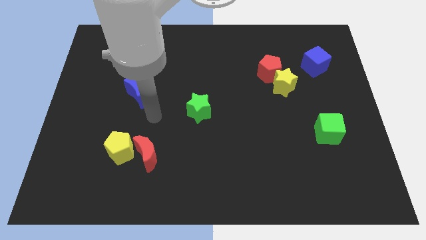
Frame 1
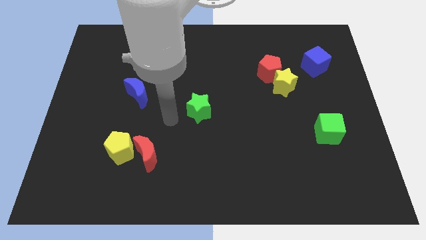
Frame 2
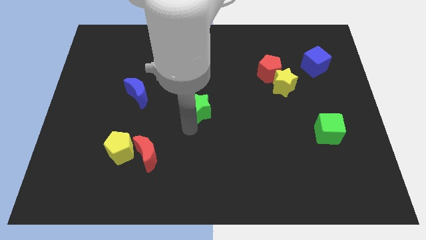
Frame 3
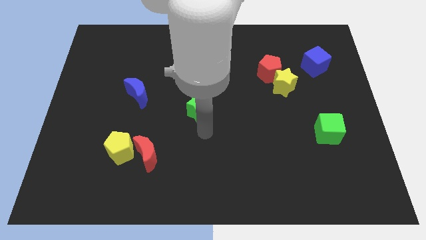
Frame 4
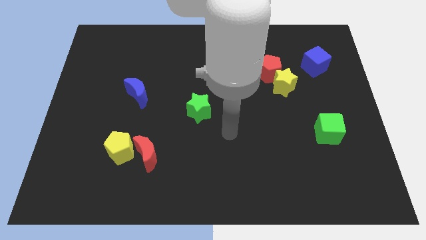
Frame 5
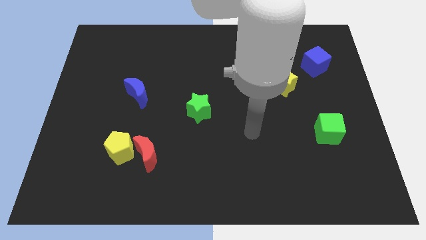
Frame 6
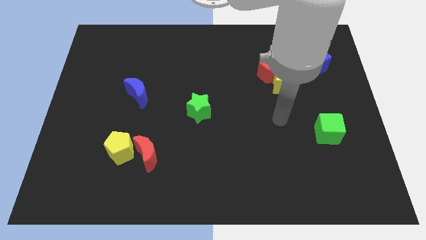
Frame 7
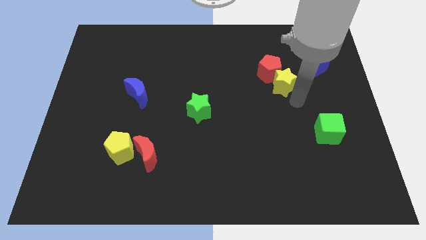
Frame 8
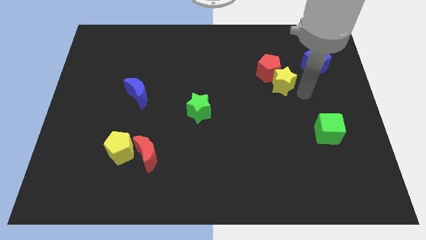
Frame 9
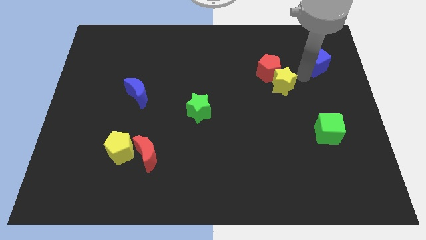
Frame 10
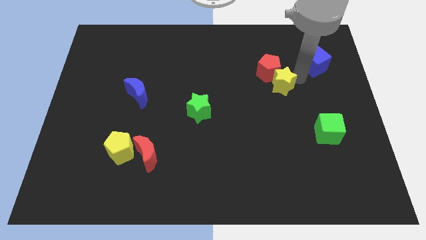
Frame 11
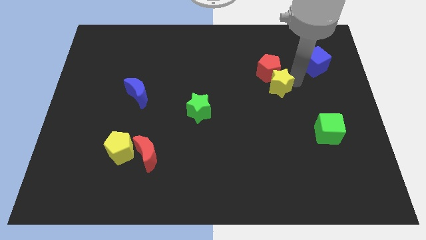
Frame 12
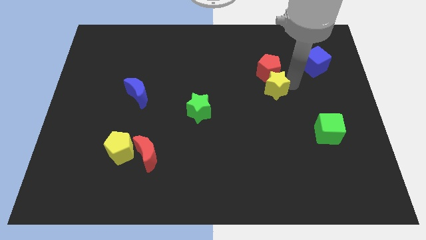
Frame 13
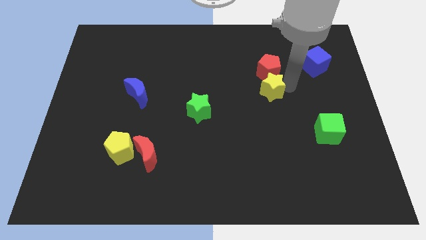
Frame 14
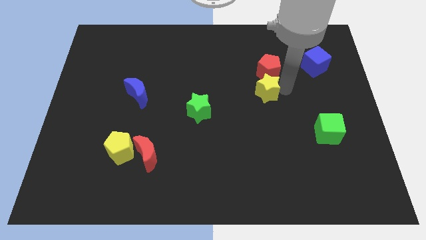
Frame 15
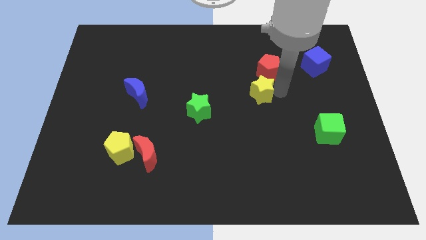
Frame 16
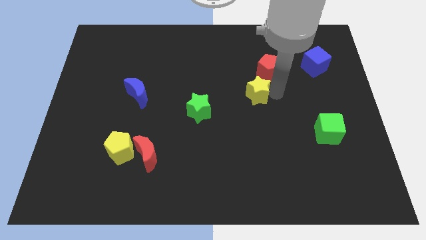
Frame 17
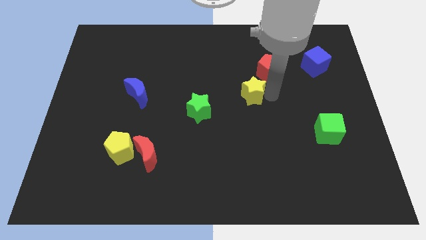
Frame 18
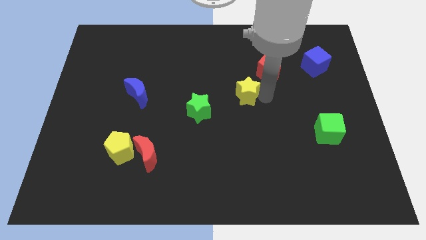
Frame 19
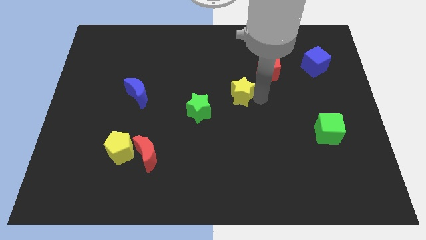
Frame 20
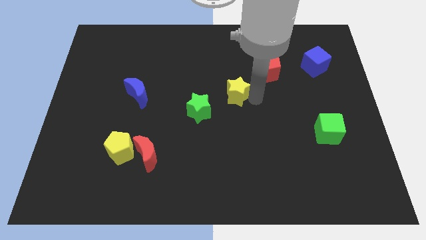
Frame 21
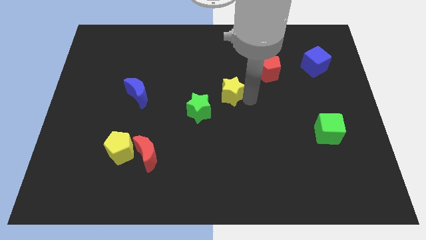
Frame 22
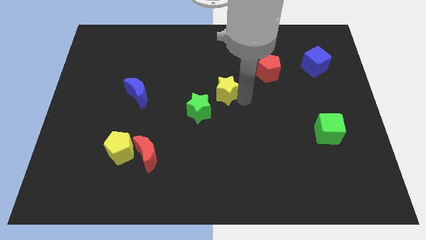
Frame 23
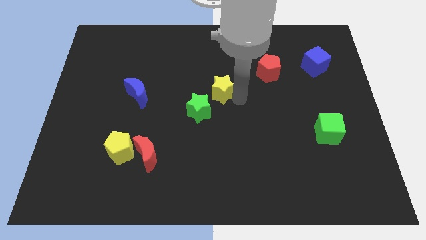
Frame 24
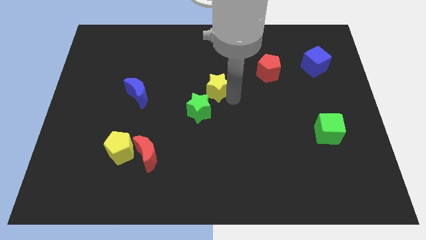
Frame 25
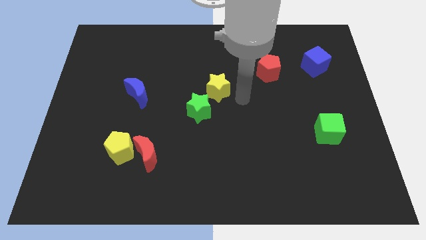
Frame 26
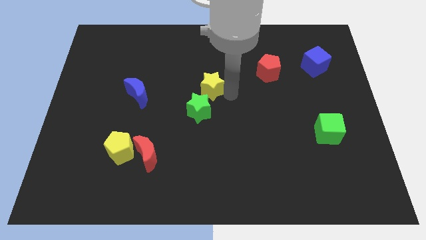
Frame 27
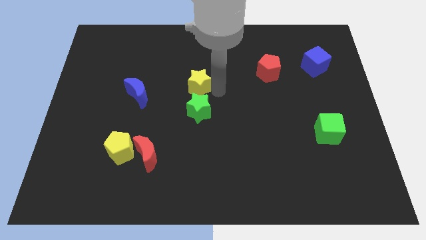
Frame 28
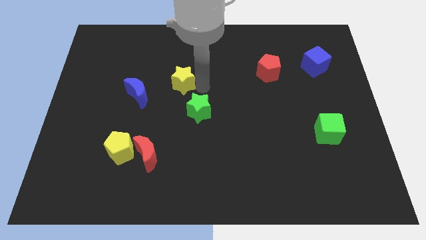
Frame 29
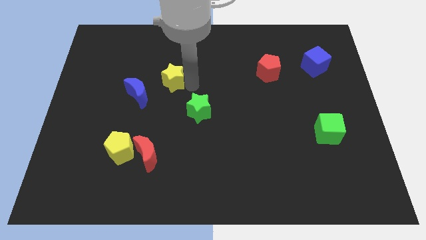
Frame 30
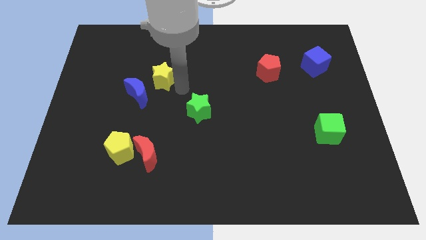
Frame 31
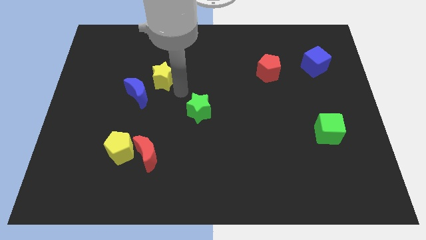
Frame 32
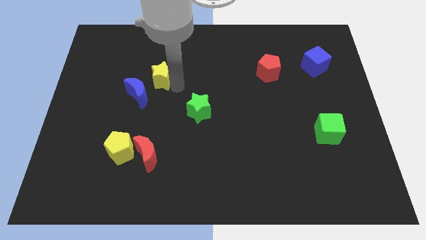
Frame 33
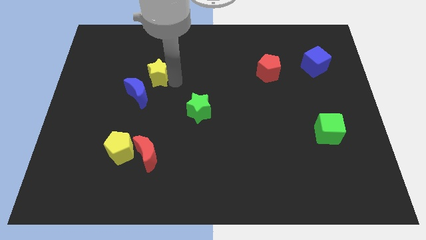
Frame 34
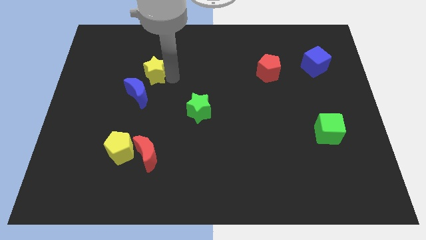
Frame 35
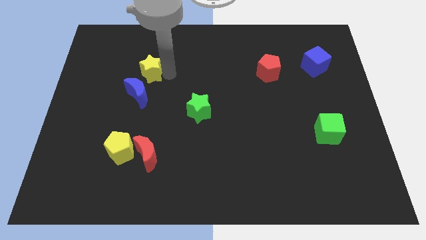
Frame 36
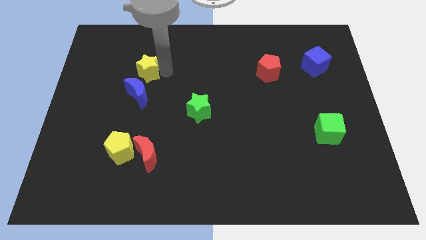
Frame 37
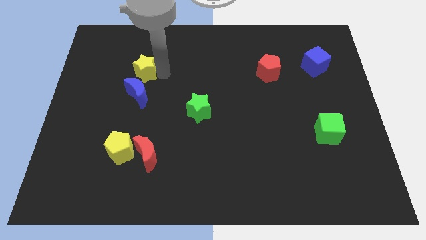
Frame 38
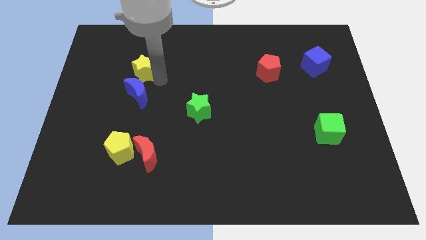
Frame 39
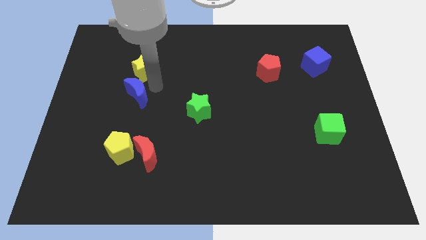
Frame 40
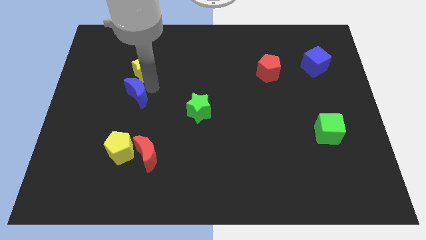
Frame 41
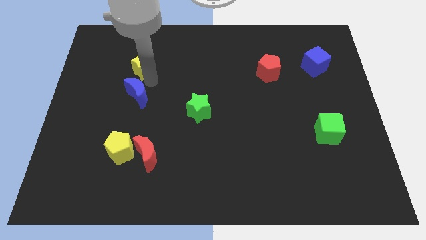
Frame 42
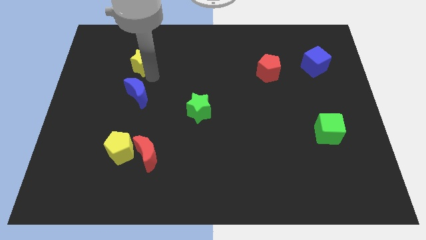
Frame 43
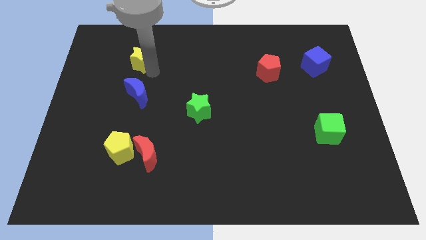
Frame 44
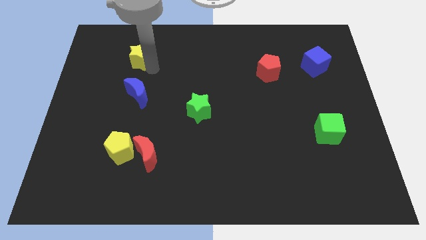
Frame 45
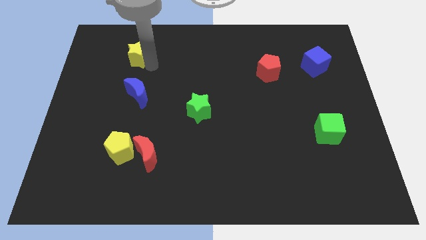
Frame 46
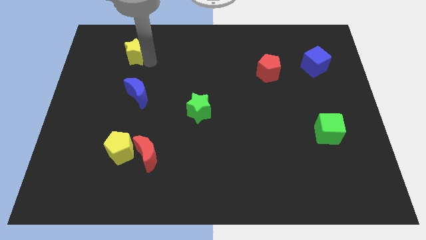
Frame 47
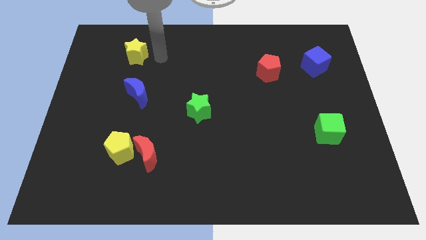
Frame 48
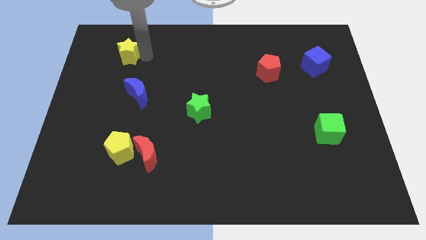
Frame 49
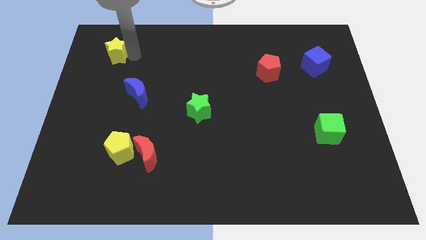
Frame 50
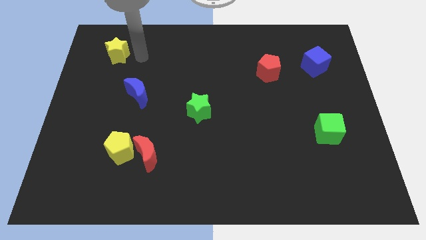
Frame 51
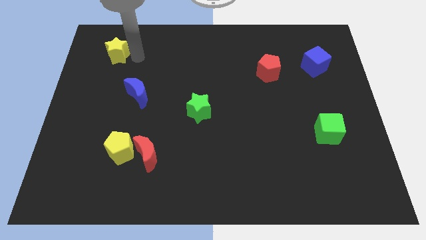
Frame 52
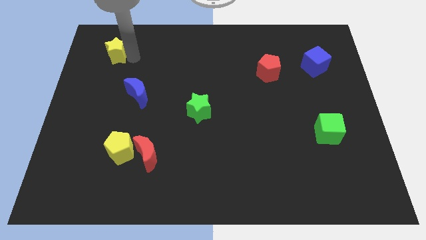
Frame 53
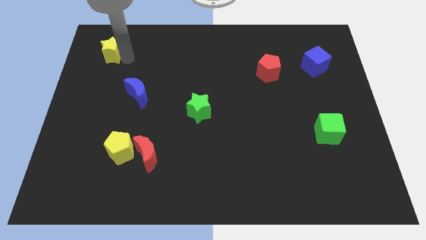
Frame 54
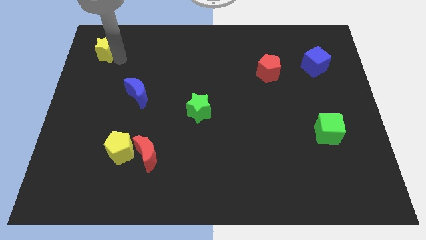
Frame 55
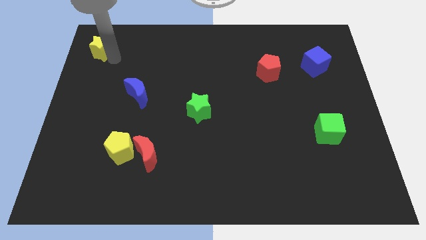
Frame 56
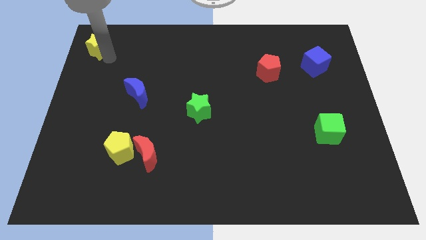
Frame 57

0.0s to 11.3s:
push the yellow star to the top left corner

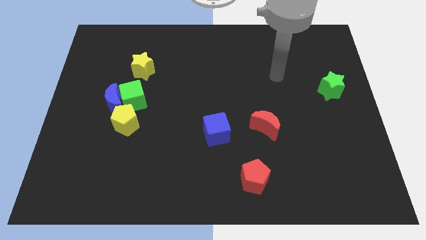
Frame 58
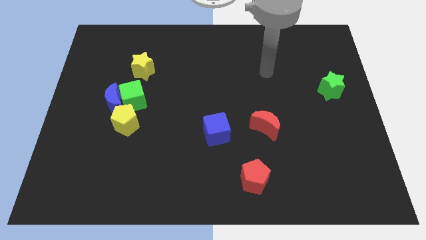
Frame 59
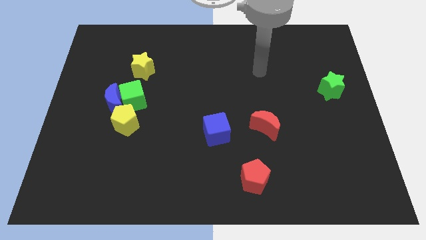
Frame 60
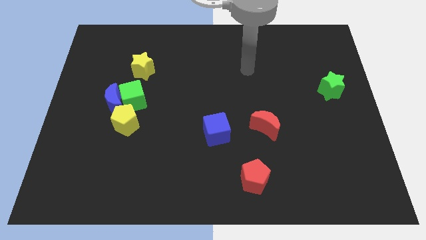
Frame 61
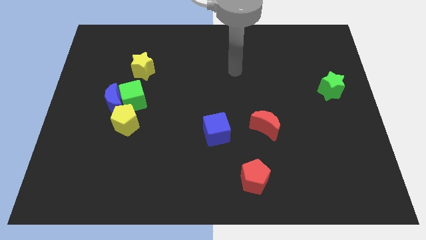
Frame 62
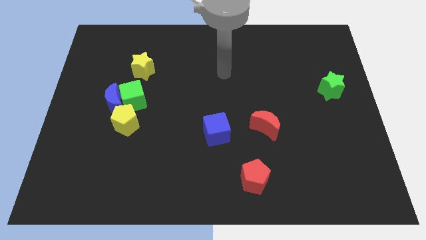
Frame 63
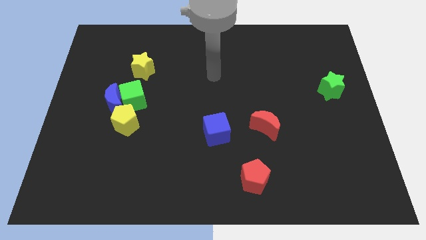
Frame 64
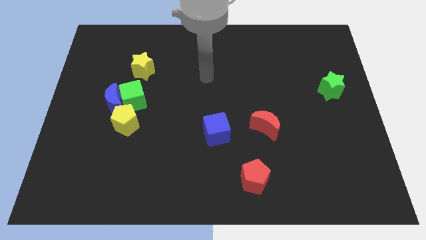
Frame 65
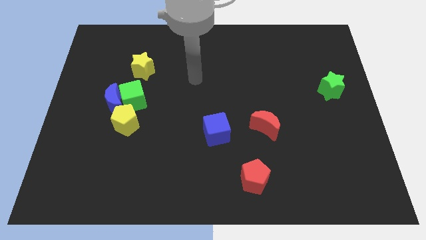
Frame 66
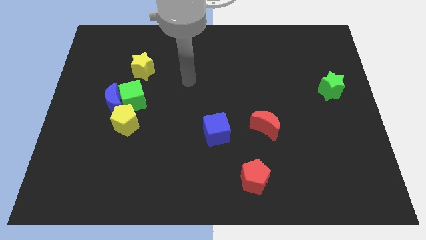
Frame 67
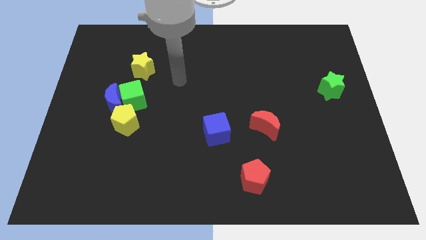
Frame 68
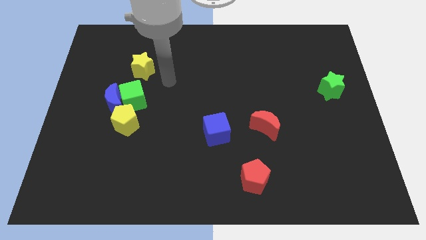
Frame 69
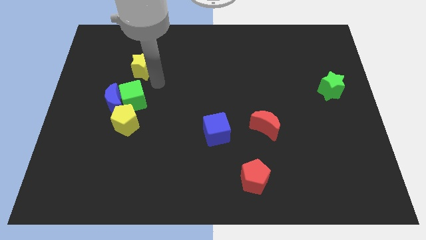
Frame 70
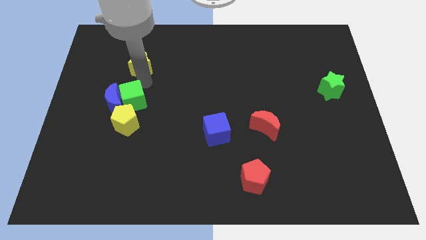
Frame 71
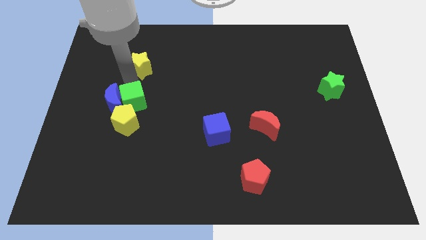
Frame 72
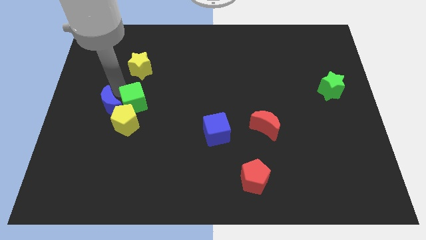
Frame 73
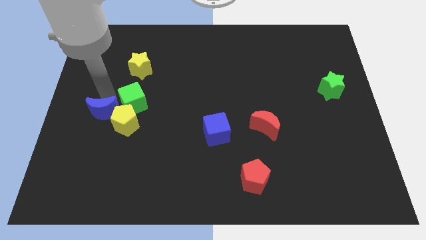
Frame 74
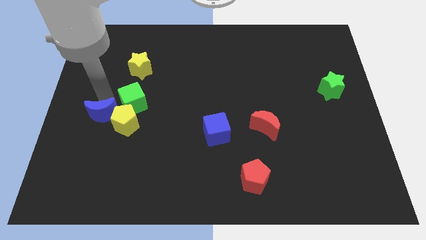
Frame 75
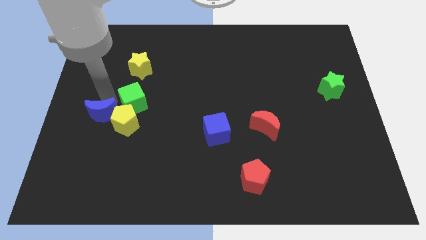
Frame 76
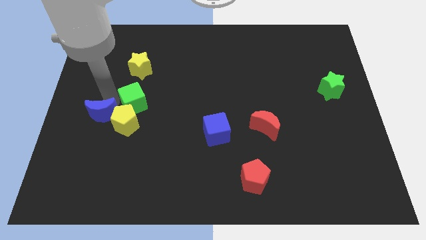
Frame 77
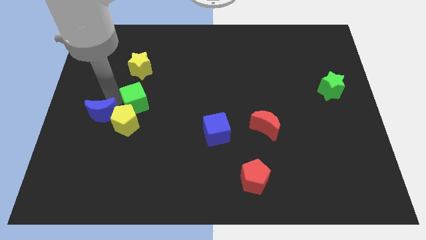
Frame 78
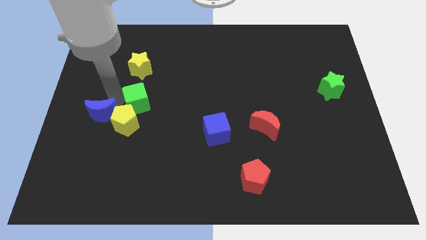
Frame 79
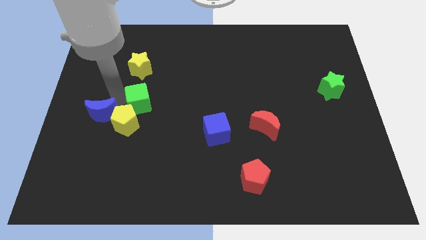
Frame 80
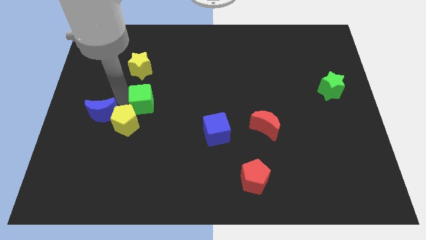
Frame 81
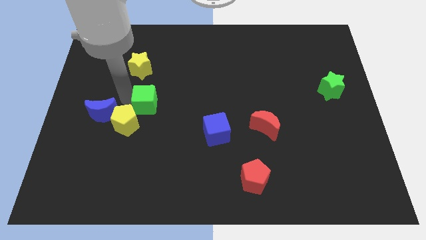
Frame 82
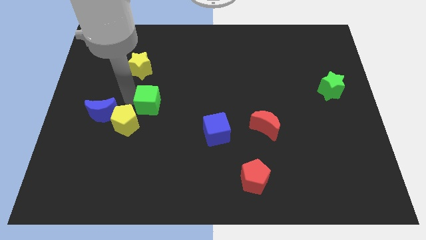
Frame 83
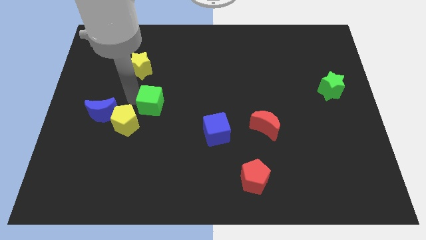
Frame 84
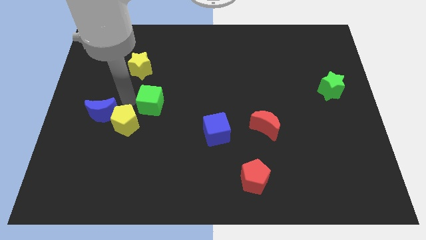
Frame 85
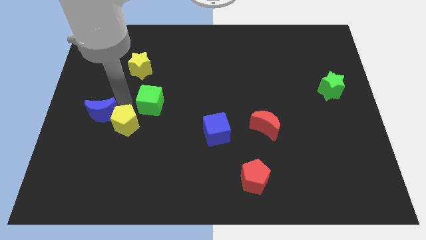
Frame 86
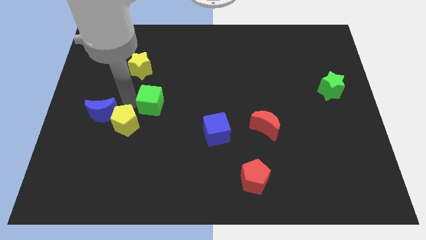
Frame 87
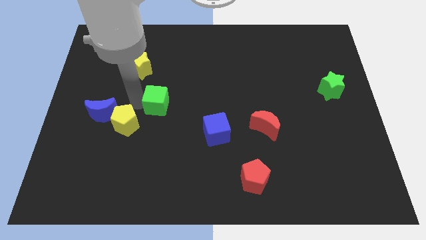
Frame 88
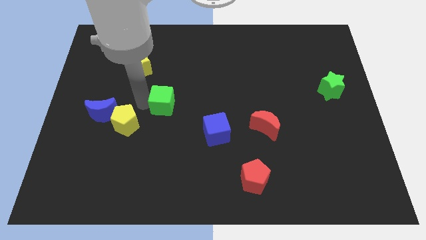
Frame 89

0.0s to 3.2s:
move the green cube to the middle
